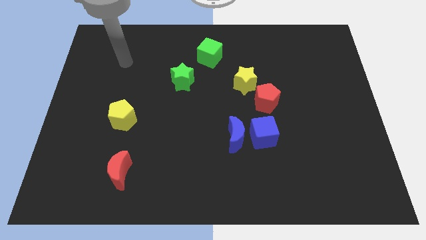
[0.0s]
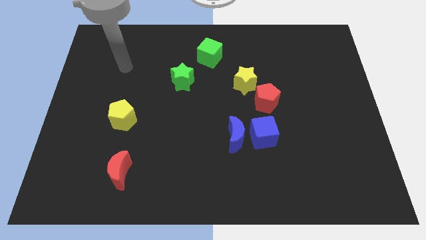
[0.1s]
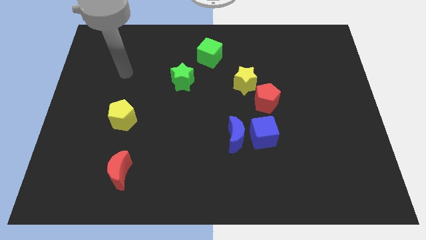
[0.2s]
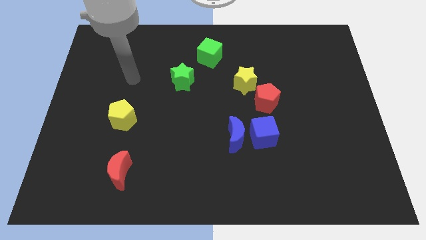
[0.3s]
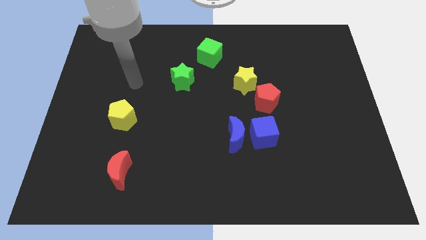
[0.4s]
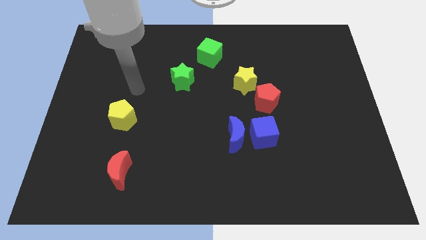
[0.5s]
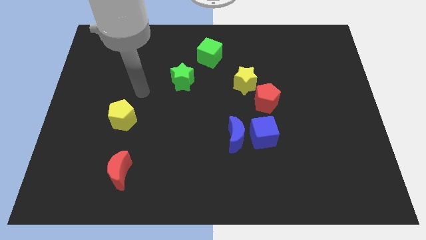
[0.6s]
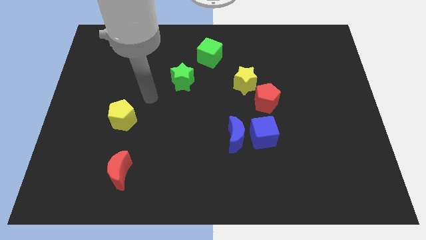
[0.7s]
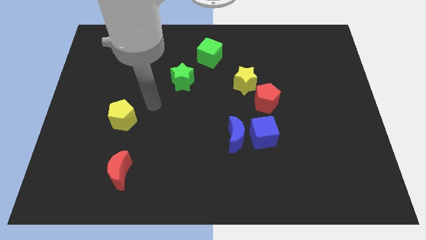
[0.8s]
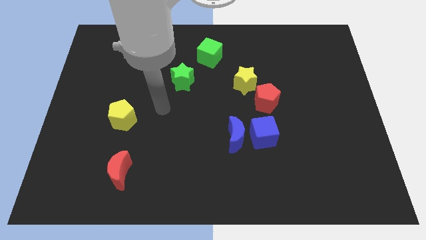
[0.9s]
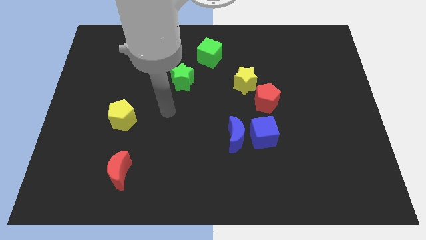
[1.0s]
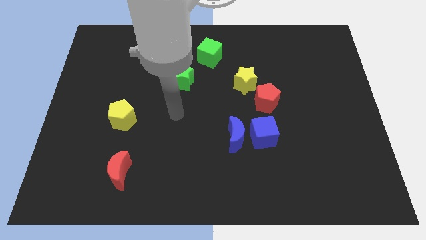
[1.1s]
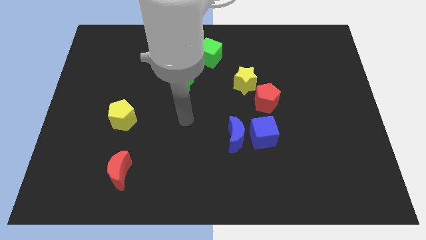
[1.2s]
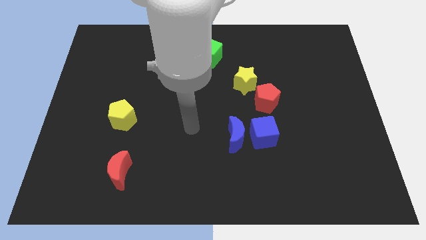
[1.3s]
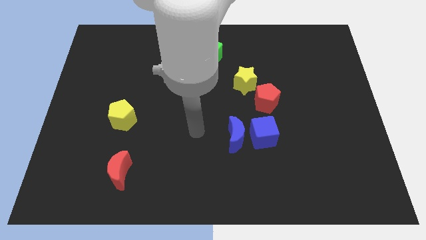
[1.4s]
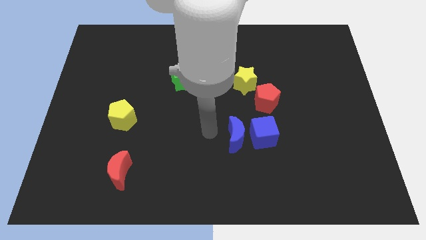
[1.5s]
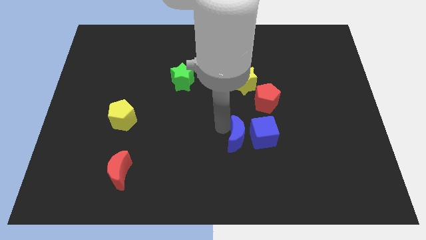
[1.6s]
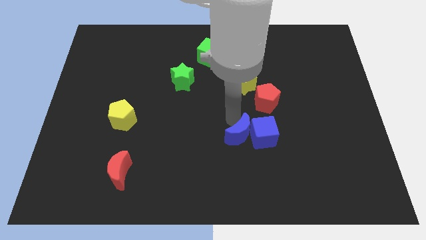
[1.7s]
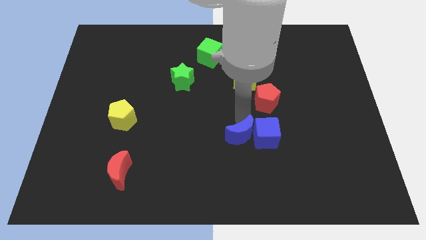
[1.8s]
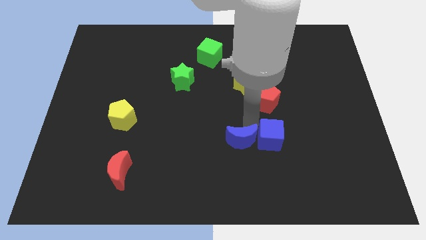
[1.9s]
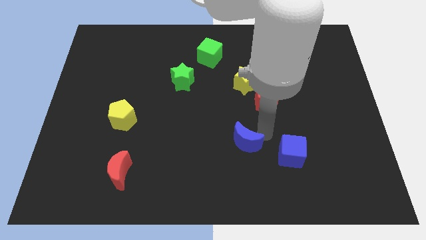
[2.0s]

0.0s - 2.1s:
separate the blue moon from the blue cube

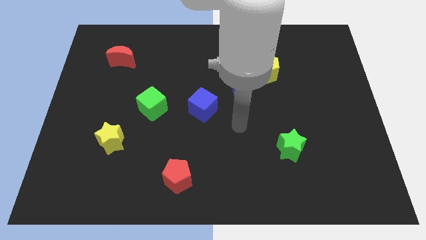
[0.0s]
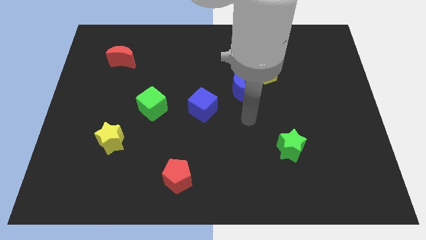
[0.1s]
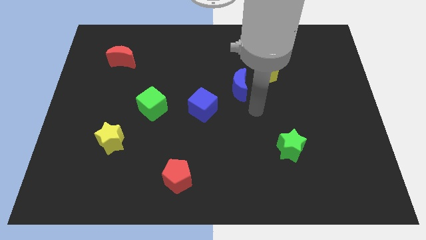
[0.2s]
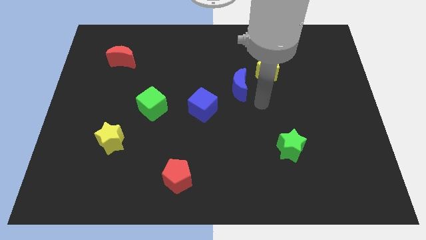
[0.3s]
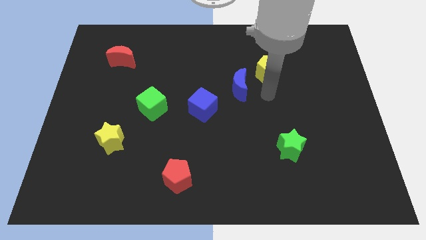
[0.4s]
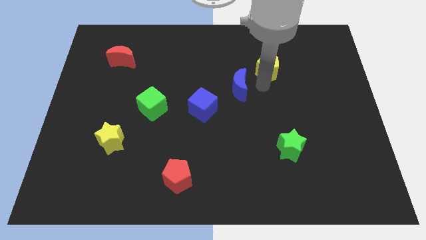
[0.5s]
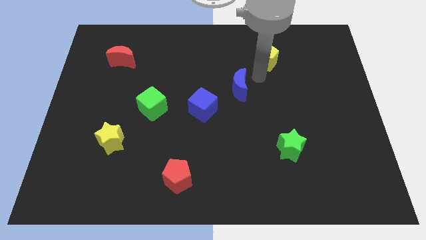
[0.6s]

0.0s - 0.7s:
pull the blue moon apart from the yellow pentagon

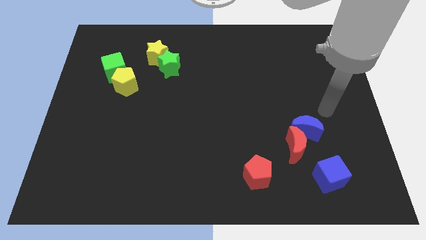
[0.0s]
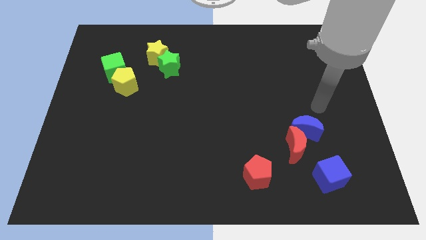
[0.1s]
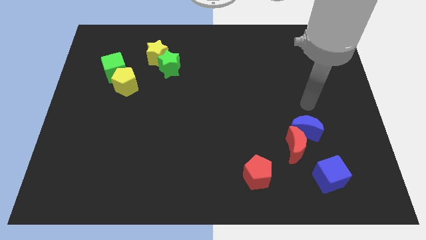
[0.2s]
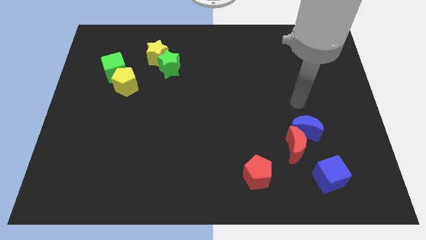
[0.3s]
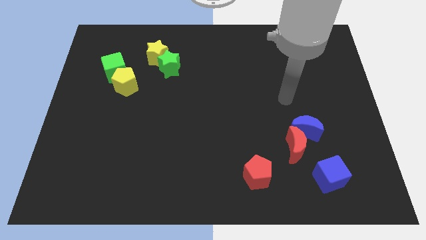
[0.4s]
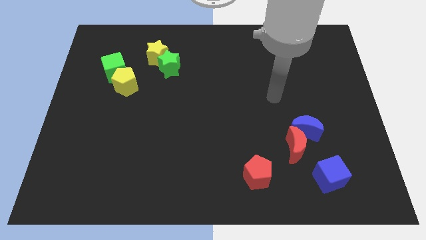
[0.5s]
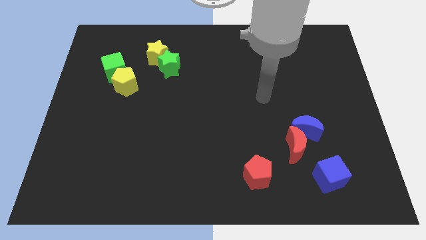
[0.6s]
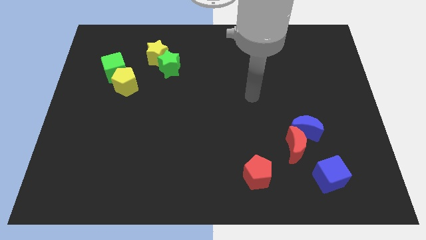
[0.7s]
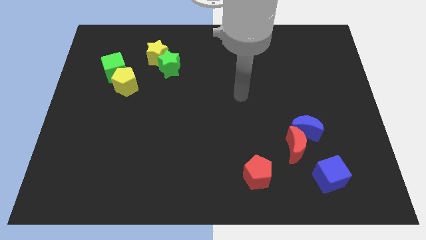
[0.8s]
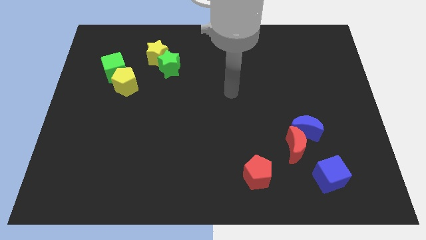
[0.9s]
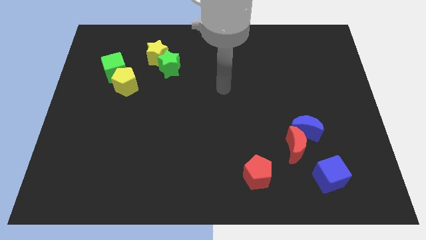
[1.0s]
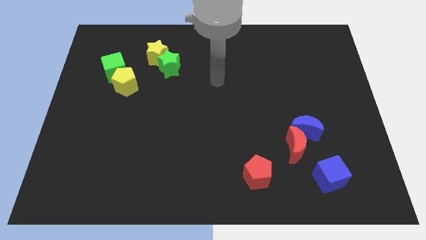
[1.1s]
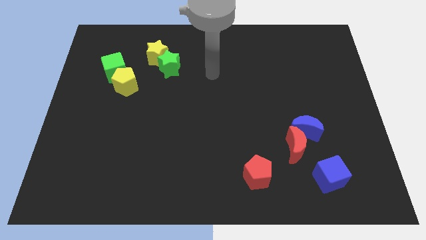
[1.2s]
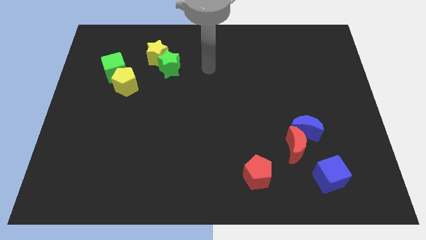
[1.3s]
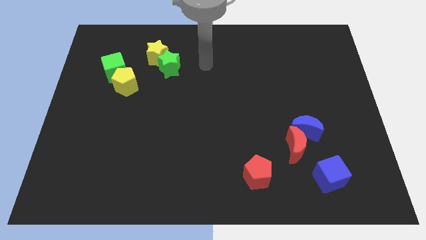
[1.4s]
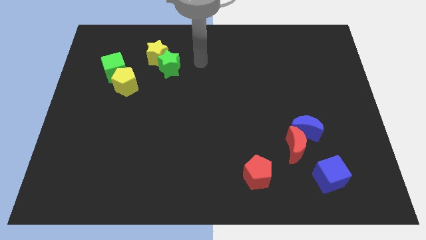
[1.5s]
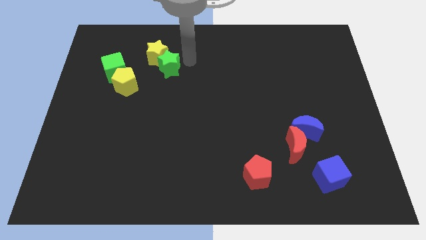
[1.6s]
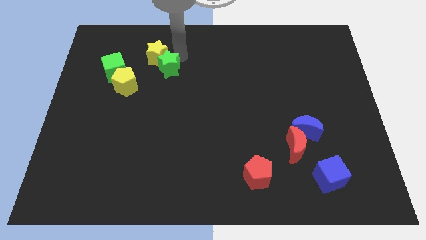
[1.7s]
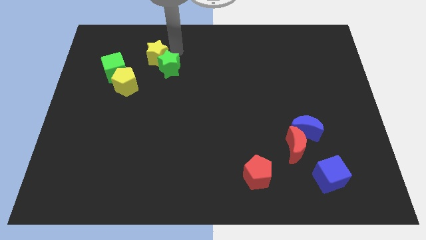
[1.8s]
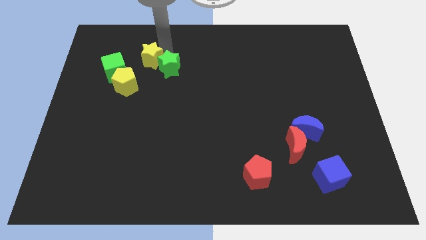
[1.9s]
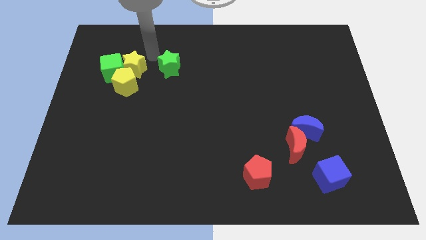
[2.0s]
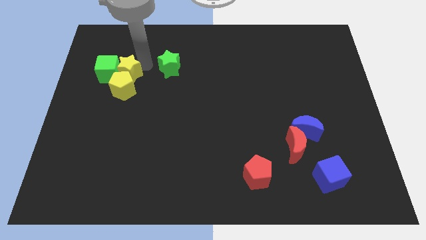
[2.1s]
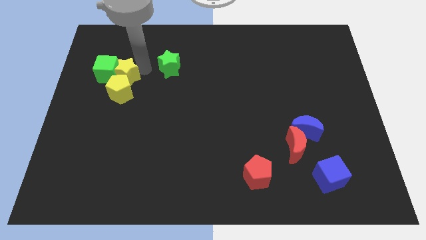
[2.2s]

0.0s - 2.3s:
move the green star away from the yellow star

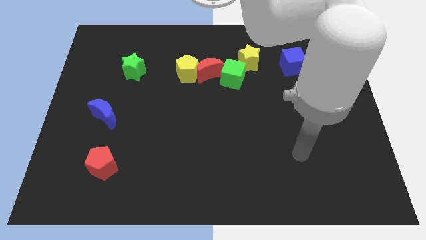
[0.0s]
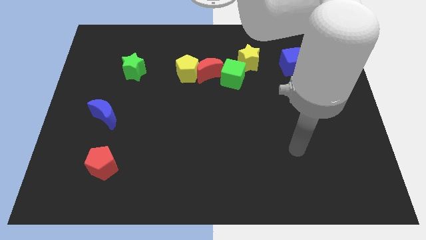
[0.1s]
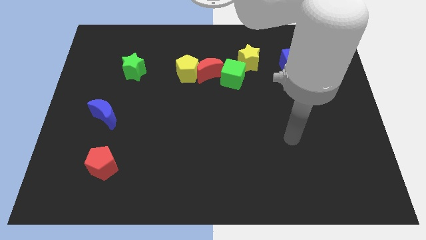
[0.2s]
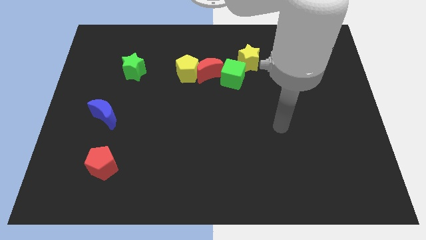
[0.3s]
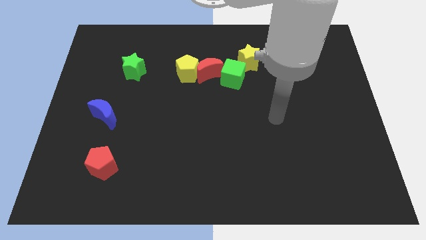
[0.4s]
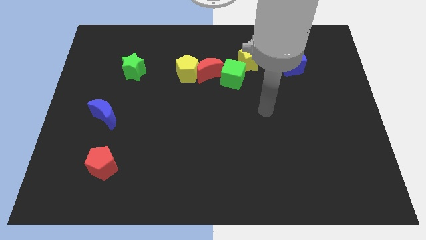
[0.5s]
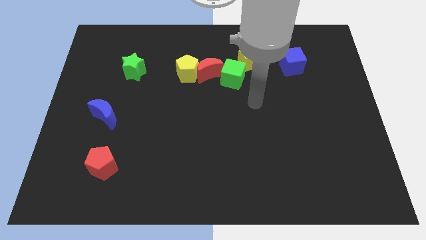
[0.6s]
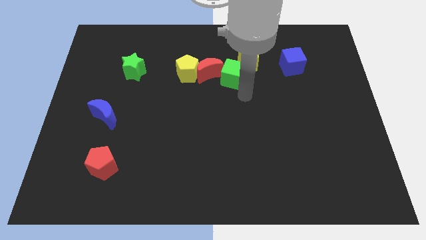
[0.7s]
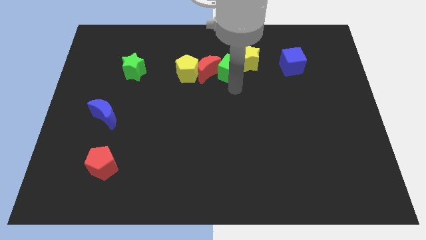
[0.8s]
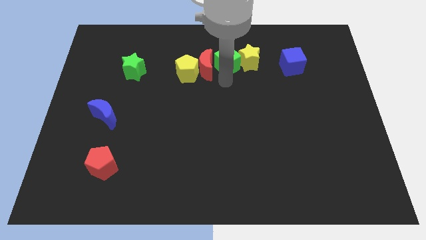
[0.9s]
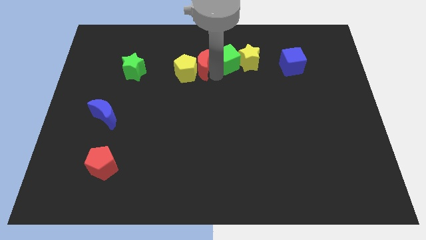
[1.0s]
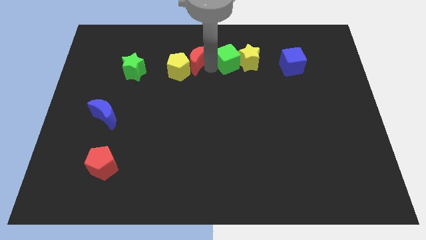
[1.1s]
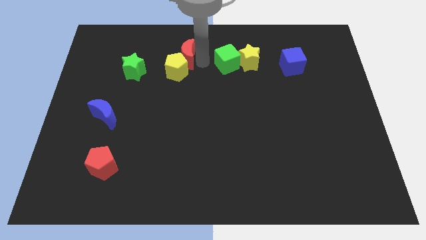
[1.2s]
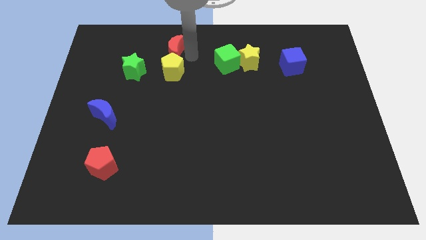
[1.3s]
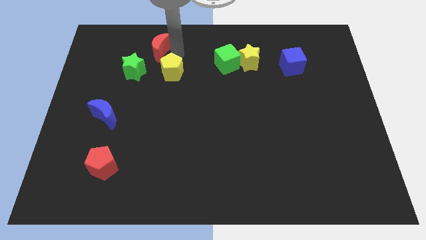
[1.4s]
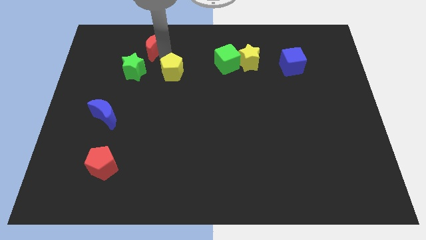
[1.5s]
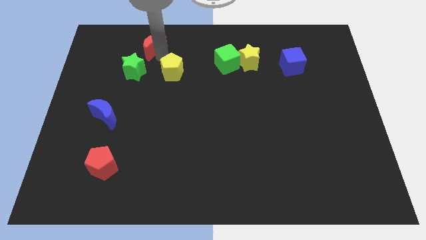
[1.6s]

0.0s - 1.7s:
separate the yellow pentagon from the red moon

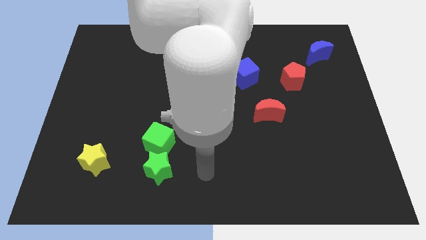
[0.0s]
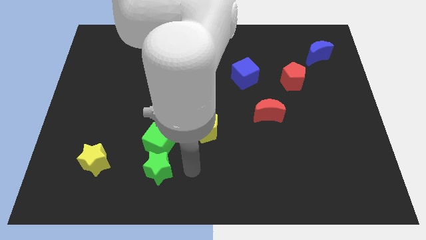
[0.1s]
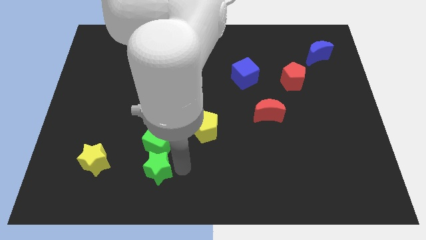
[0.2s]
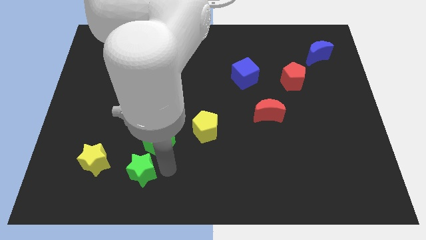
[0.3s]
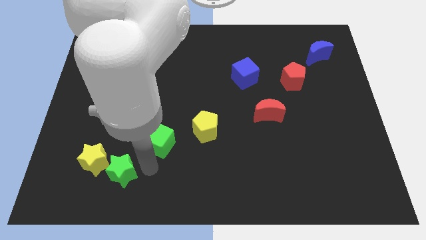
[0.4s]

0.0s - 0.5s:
move the green cube away from the green star

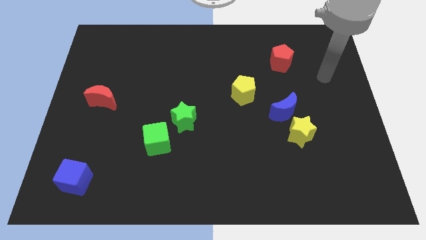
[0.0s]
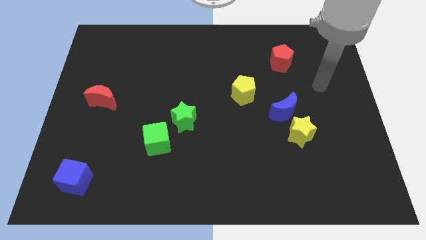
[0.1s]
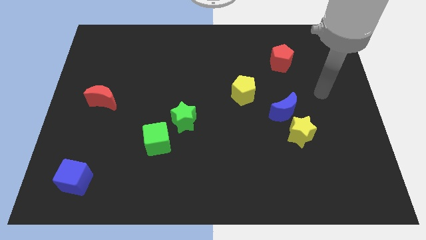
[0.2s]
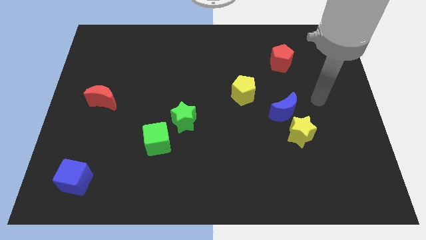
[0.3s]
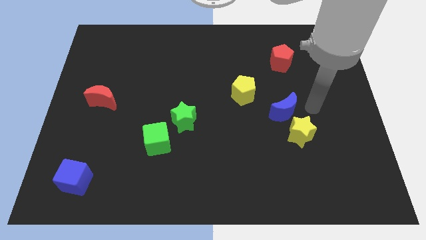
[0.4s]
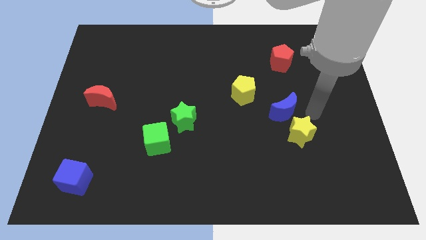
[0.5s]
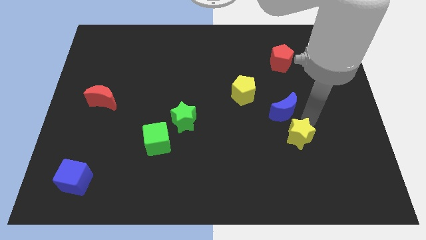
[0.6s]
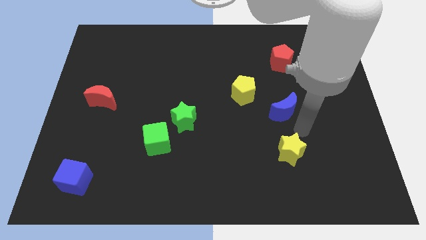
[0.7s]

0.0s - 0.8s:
move the blue moon away from the yellow star

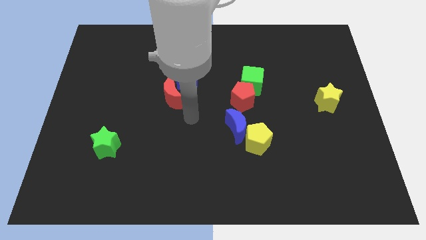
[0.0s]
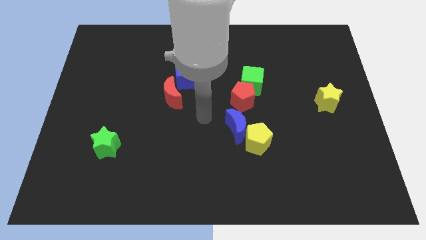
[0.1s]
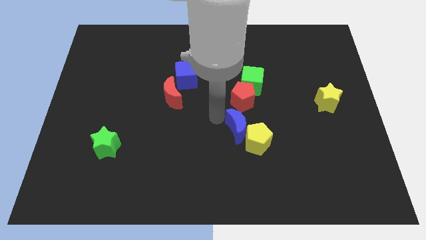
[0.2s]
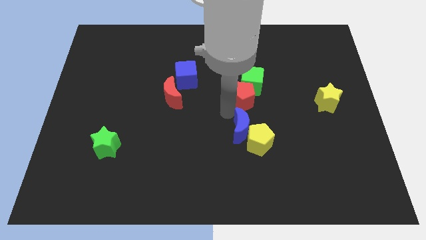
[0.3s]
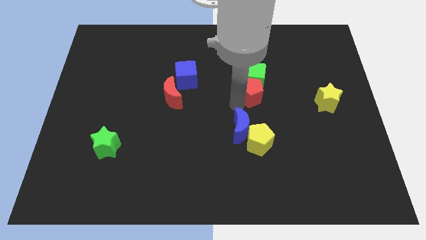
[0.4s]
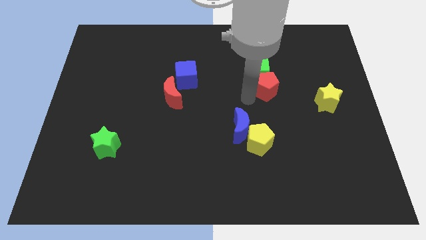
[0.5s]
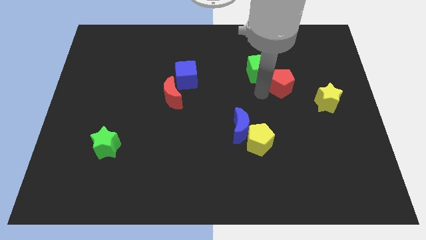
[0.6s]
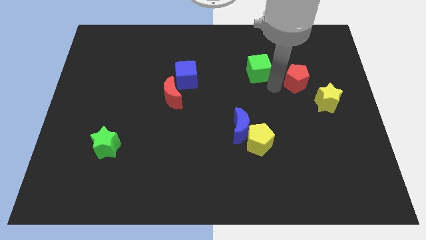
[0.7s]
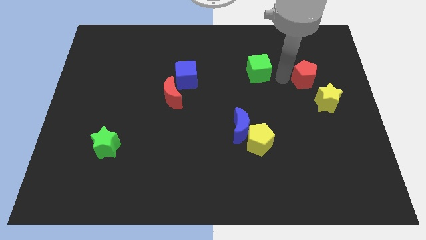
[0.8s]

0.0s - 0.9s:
pull the green cube apart from the red pentagon

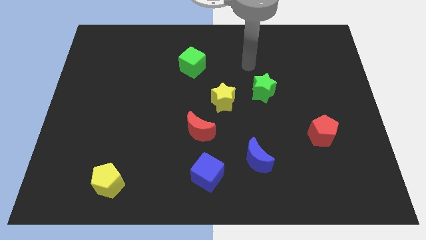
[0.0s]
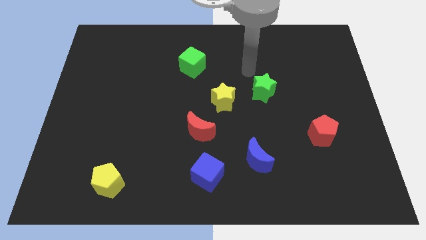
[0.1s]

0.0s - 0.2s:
pull the green star apart from the yellow star

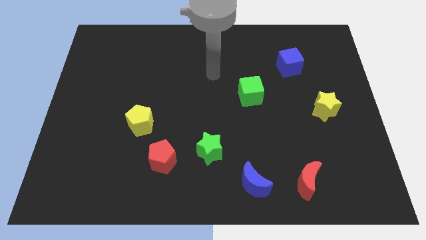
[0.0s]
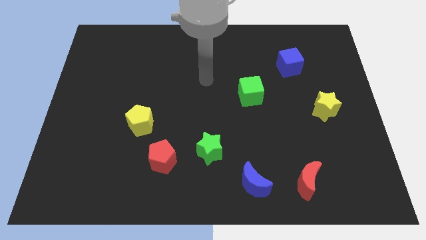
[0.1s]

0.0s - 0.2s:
separate the red pentagon from the green star
